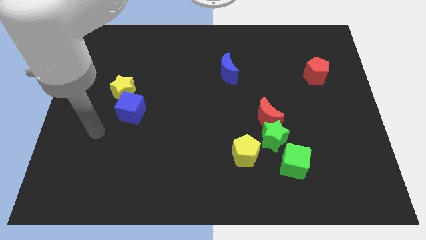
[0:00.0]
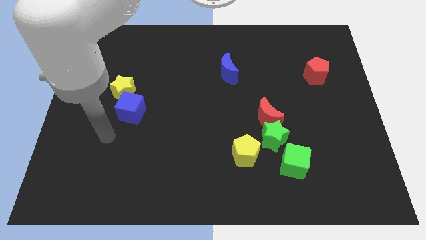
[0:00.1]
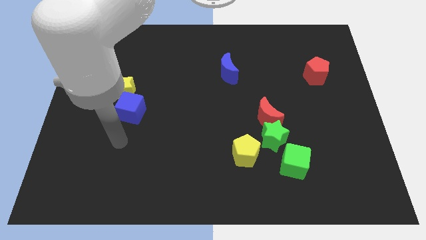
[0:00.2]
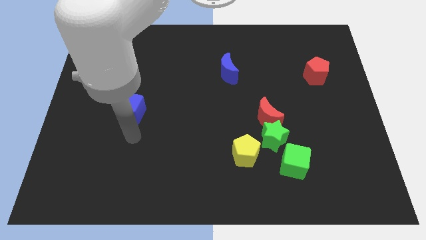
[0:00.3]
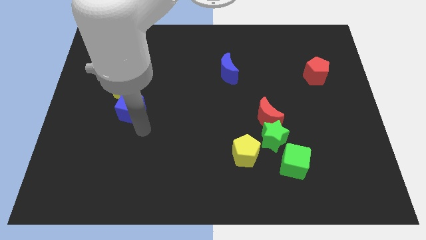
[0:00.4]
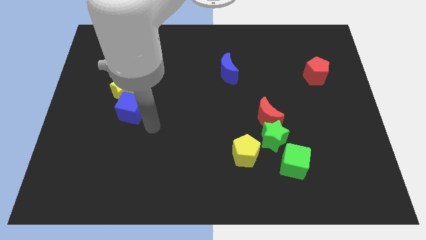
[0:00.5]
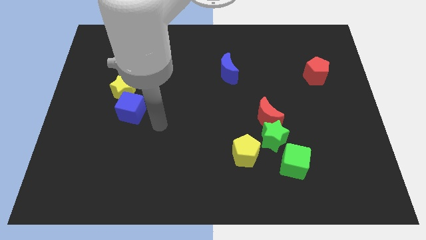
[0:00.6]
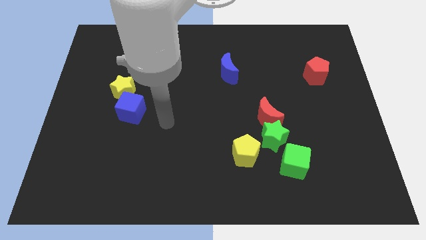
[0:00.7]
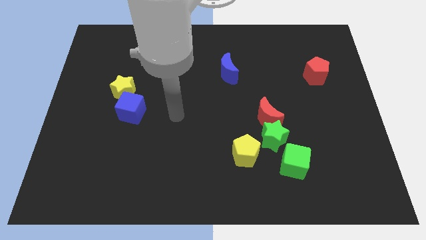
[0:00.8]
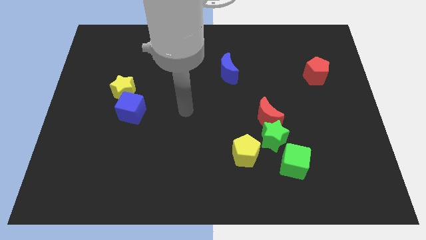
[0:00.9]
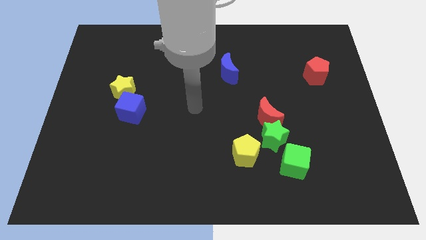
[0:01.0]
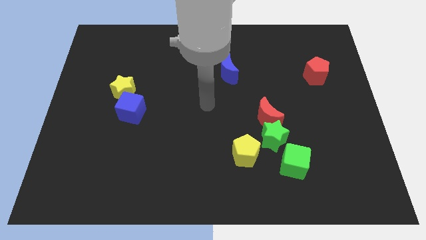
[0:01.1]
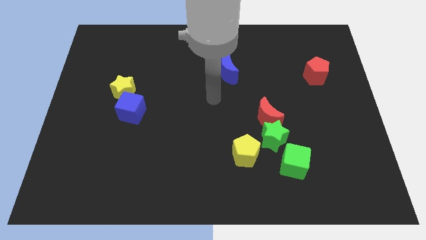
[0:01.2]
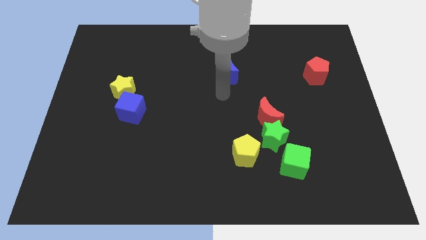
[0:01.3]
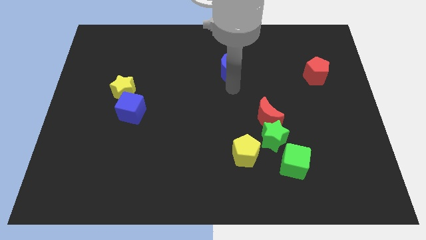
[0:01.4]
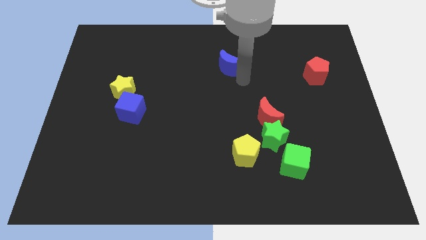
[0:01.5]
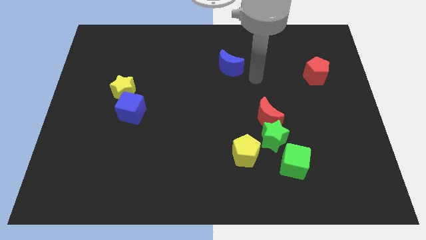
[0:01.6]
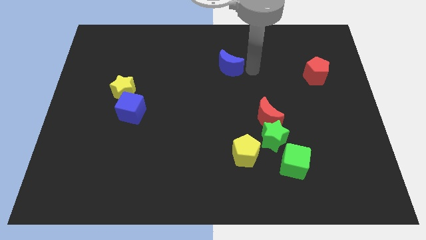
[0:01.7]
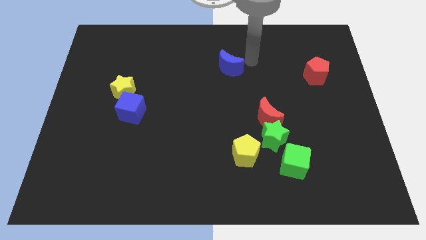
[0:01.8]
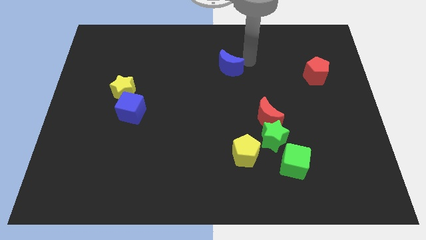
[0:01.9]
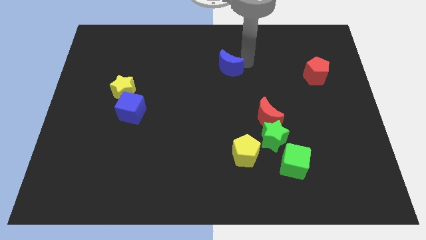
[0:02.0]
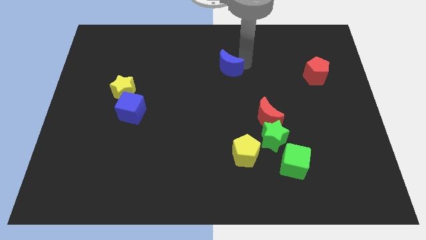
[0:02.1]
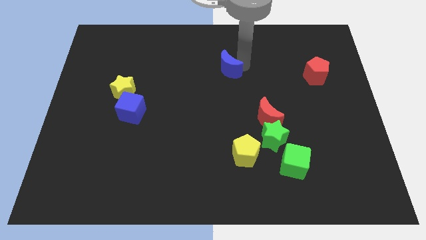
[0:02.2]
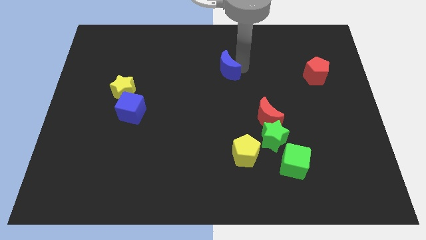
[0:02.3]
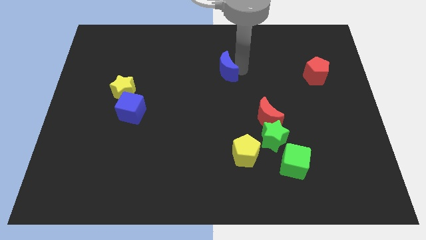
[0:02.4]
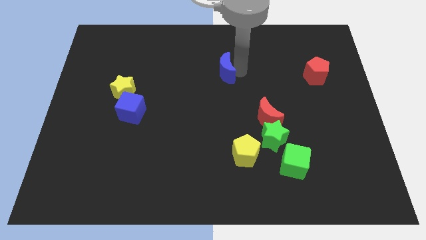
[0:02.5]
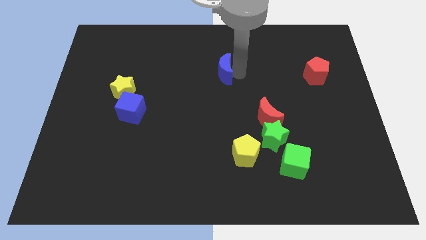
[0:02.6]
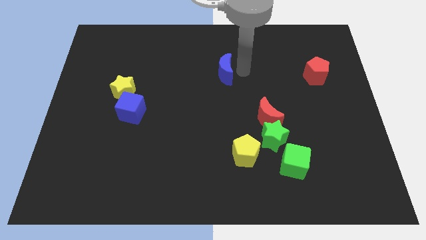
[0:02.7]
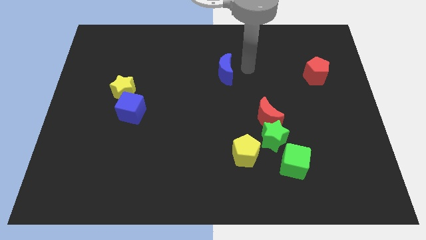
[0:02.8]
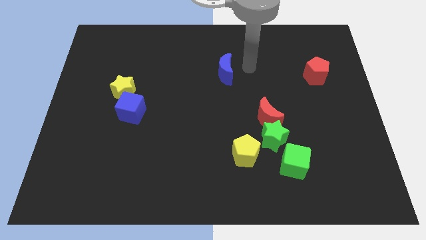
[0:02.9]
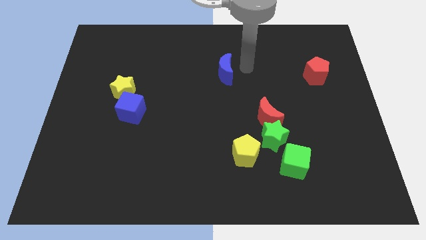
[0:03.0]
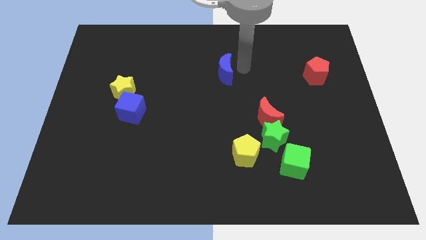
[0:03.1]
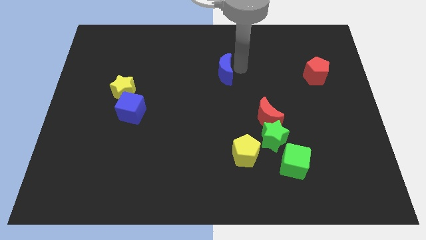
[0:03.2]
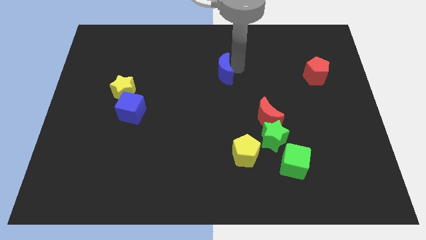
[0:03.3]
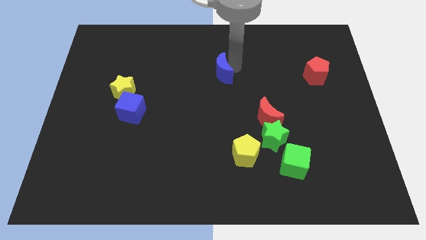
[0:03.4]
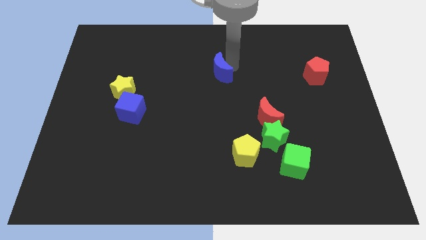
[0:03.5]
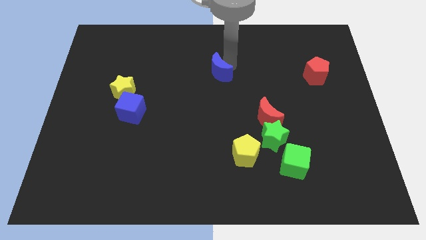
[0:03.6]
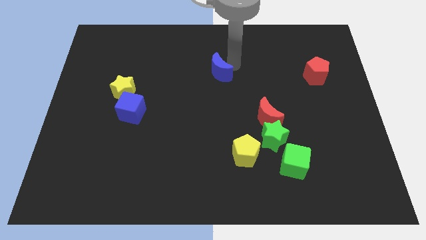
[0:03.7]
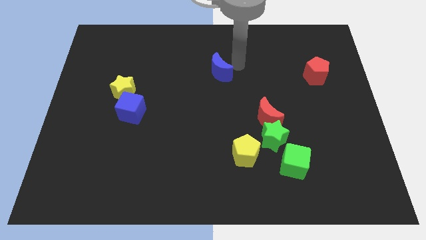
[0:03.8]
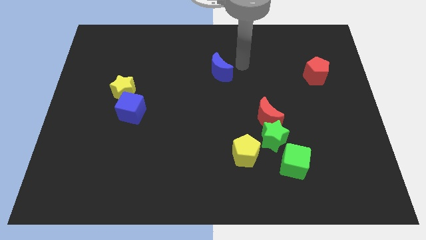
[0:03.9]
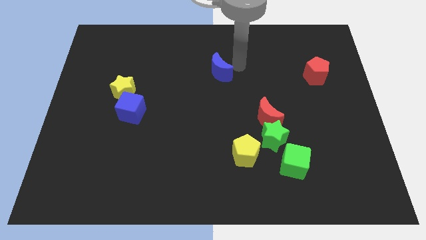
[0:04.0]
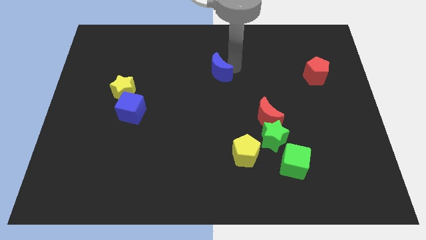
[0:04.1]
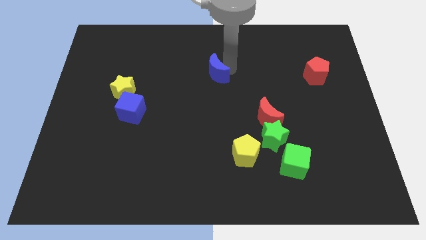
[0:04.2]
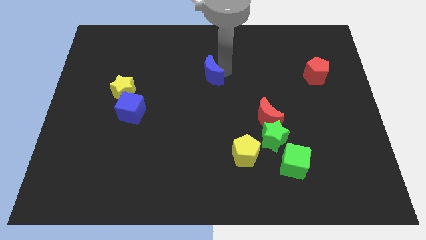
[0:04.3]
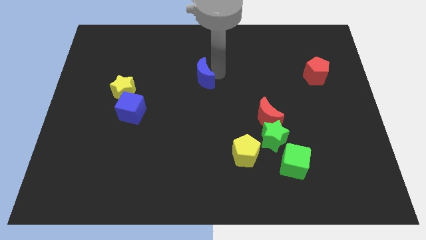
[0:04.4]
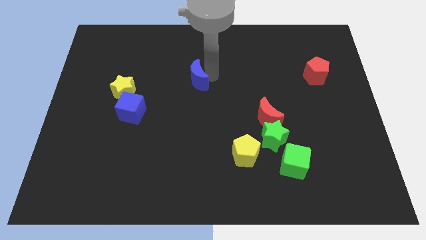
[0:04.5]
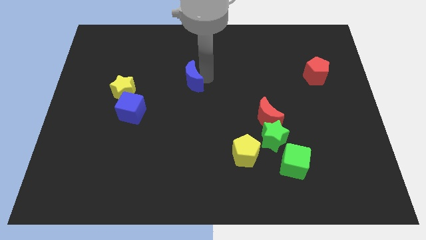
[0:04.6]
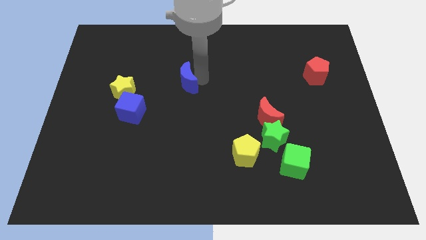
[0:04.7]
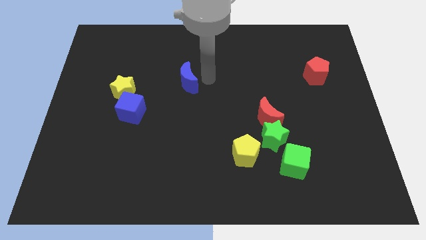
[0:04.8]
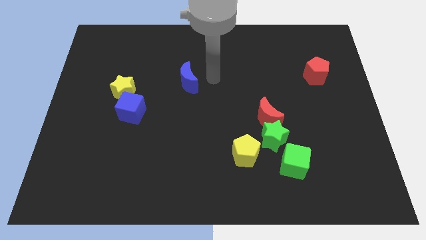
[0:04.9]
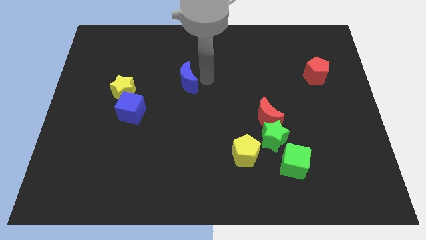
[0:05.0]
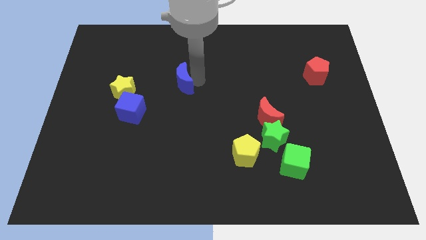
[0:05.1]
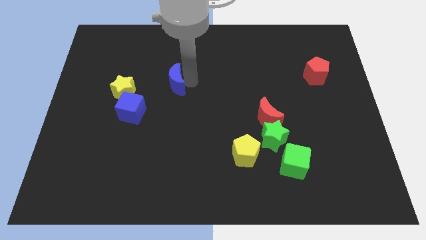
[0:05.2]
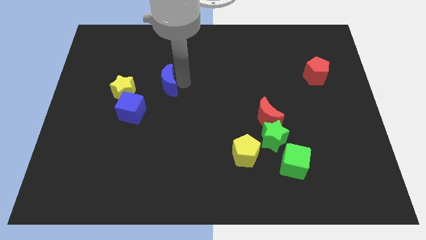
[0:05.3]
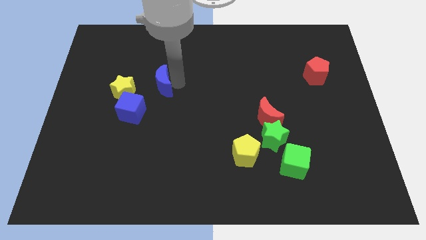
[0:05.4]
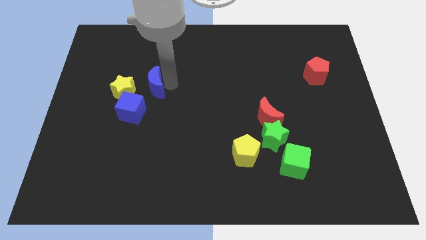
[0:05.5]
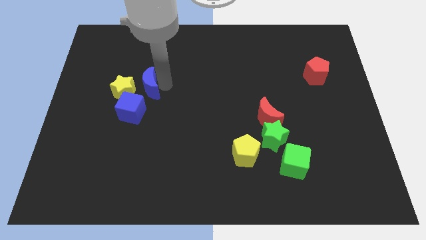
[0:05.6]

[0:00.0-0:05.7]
push the blue moon towards the yellow star

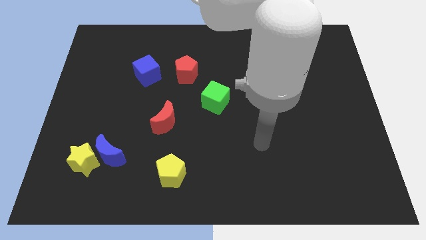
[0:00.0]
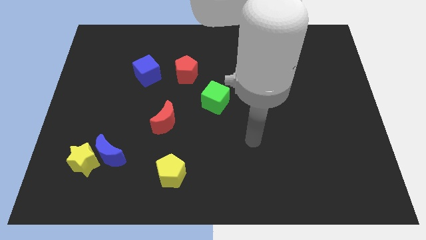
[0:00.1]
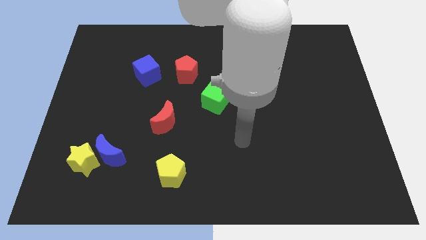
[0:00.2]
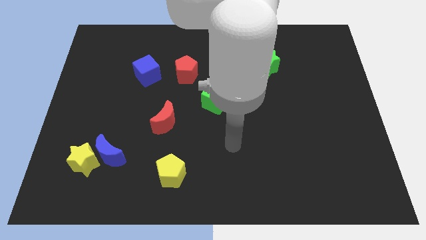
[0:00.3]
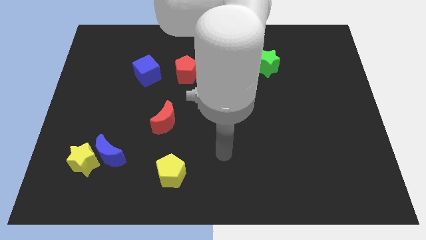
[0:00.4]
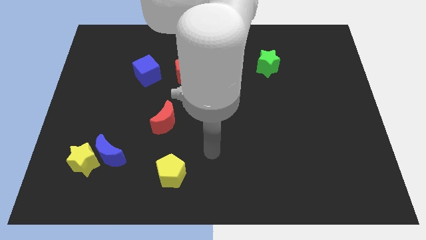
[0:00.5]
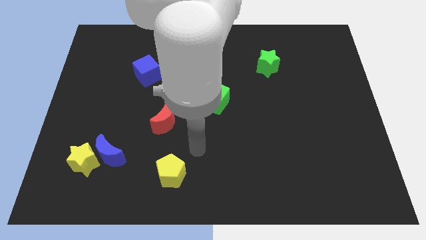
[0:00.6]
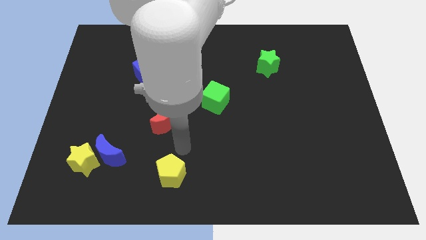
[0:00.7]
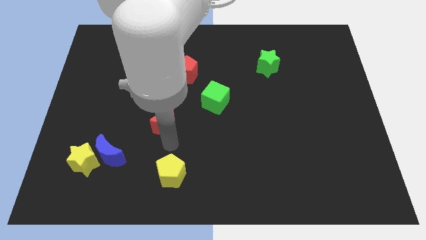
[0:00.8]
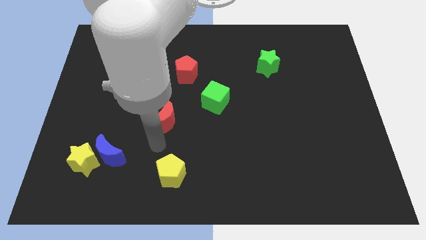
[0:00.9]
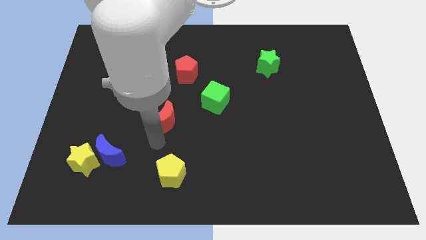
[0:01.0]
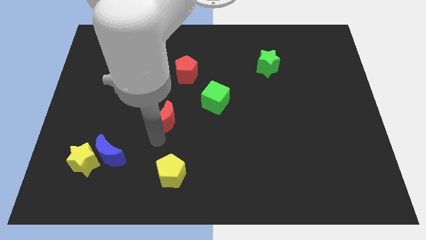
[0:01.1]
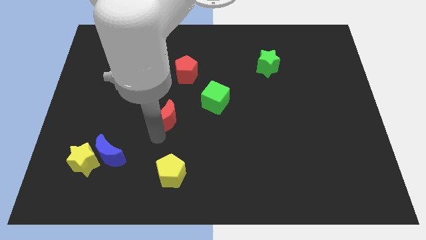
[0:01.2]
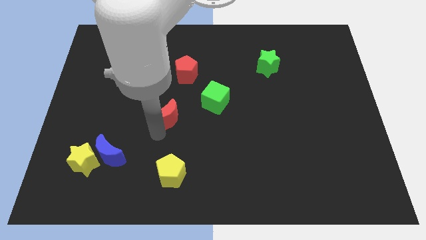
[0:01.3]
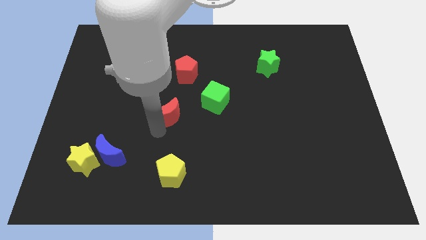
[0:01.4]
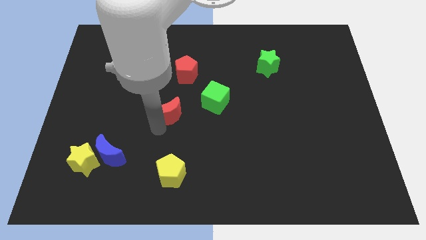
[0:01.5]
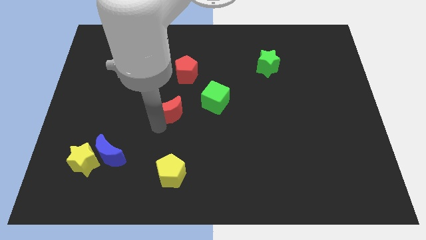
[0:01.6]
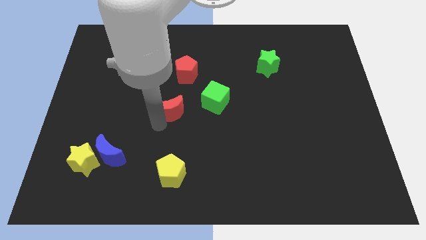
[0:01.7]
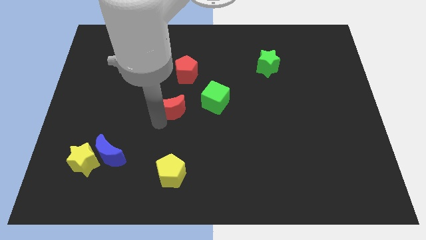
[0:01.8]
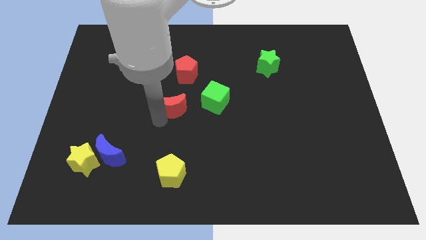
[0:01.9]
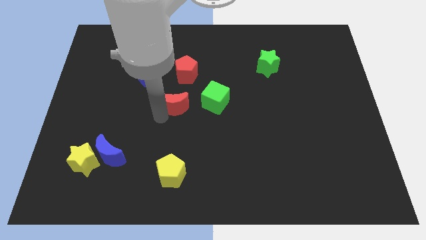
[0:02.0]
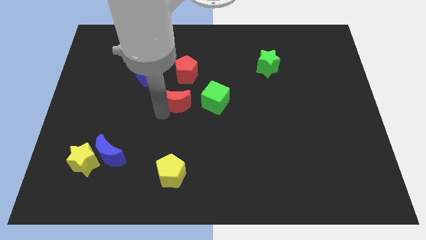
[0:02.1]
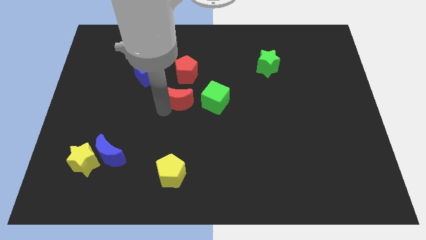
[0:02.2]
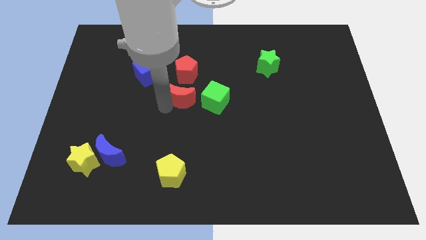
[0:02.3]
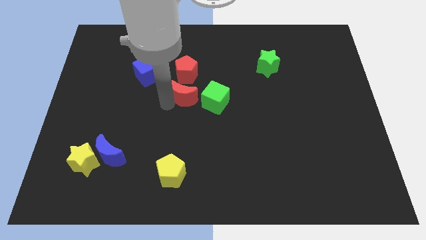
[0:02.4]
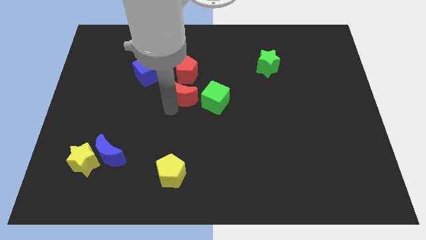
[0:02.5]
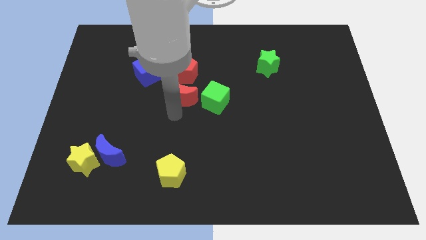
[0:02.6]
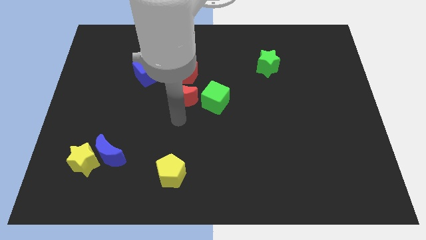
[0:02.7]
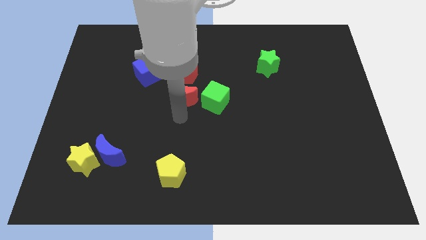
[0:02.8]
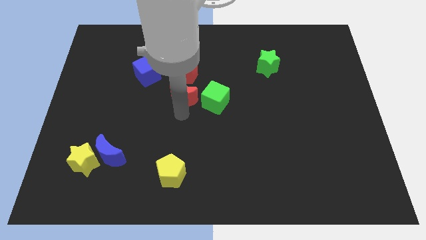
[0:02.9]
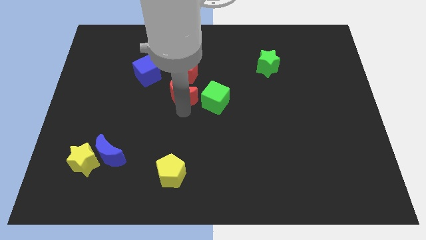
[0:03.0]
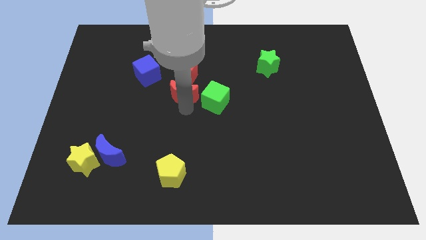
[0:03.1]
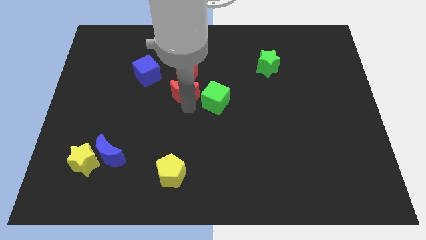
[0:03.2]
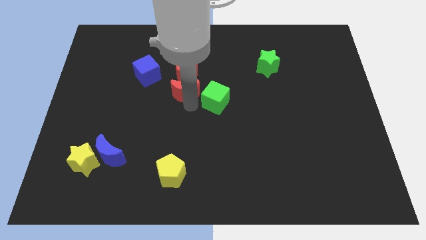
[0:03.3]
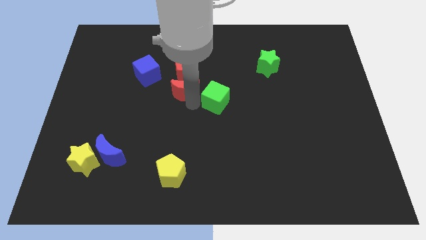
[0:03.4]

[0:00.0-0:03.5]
move the red moon next to the red pentagon
